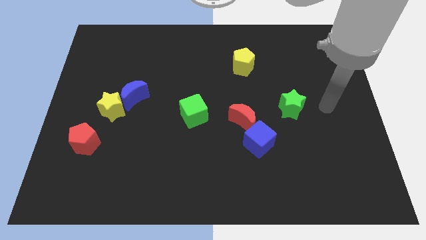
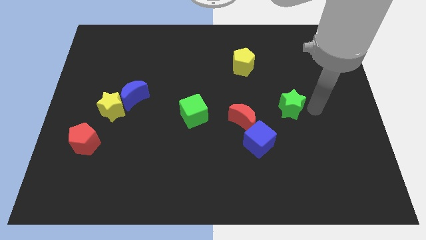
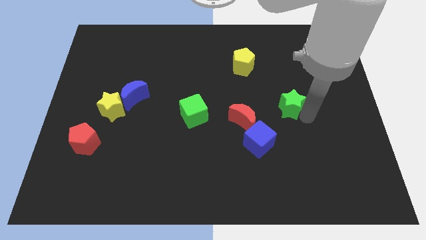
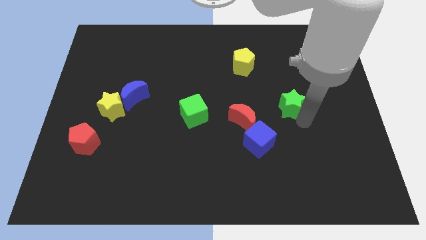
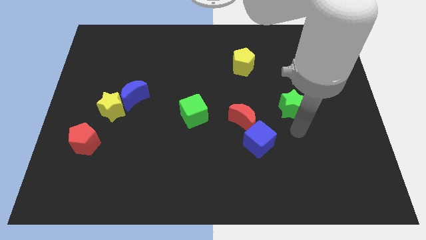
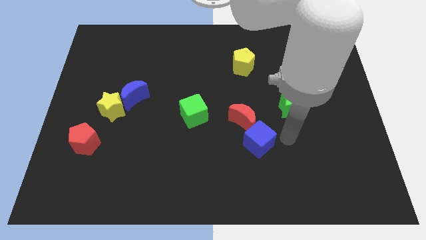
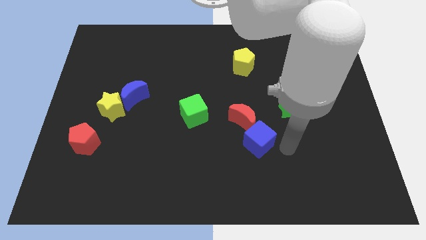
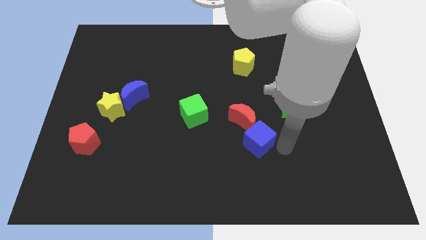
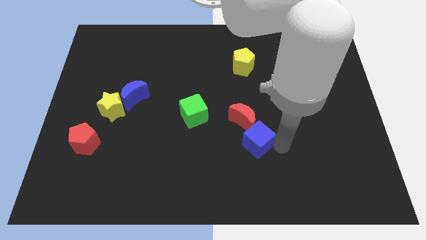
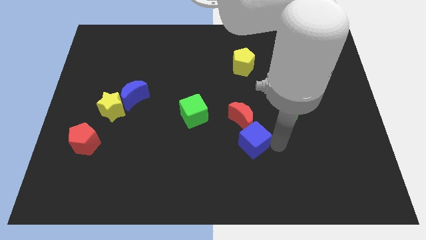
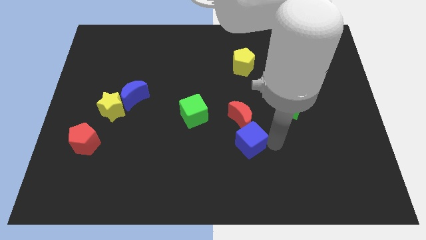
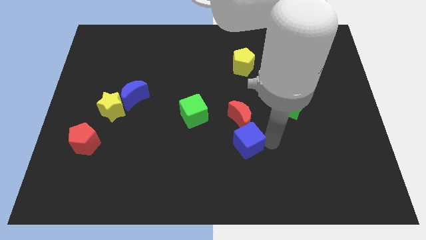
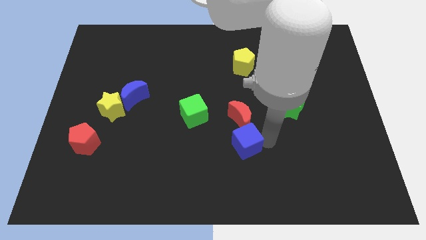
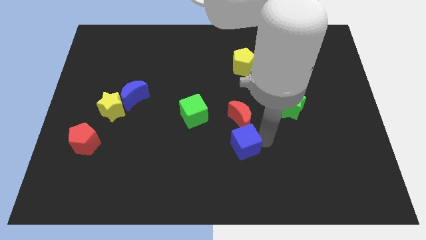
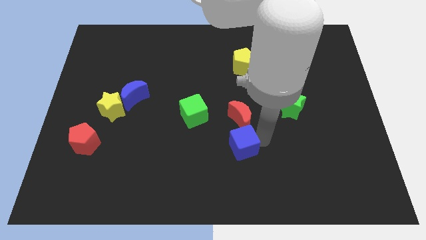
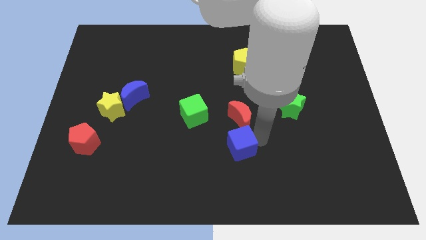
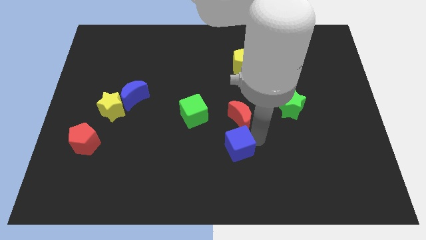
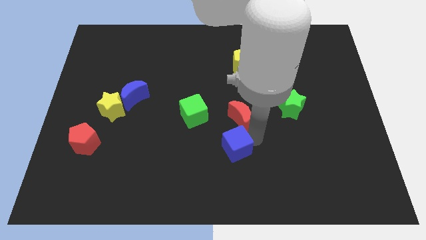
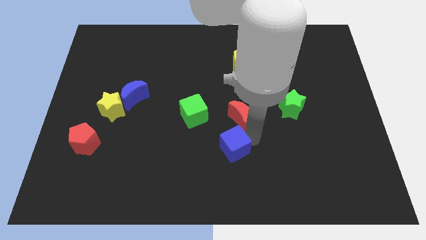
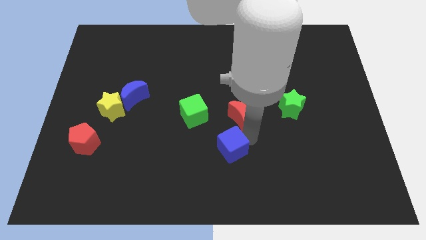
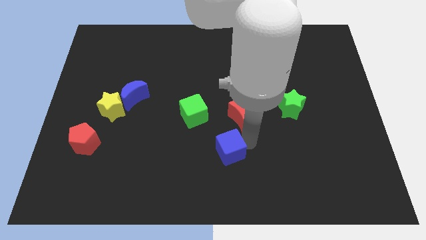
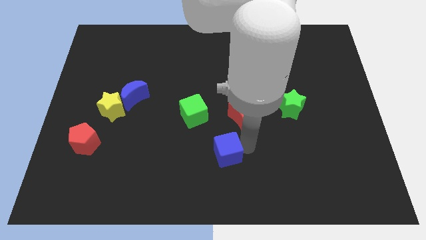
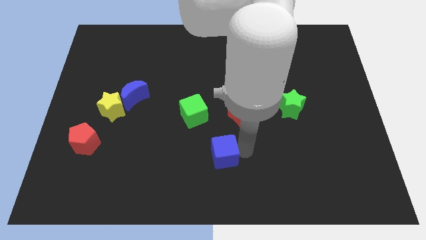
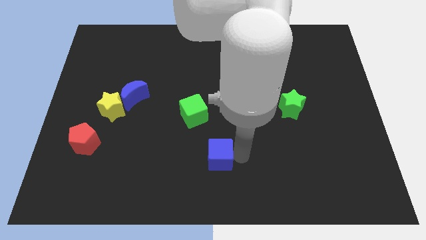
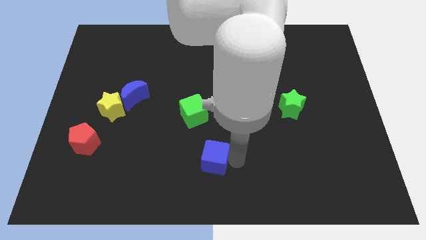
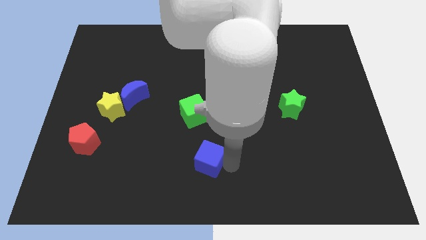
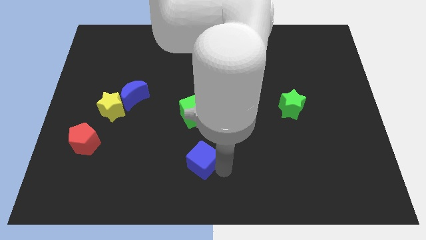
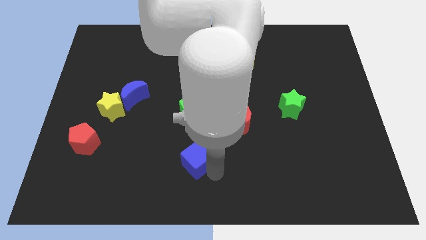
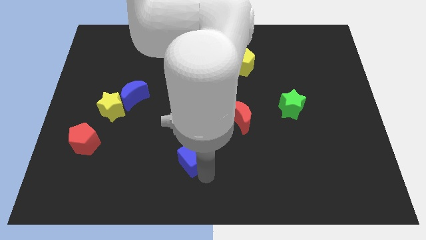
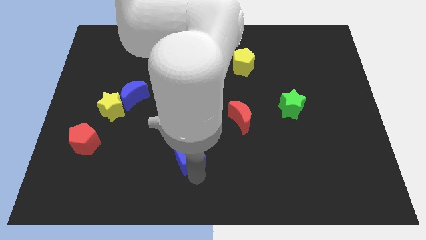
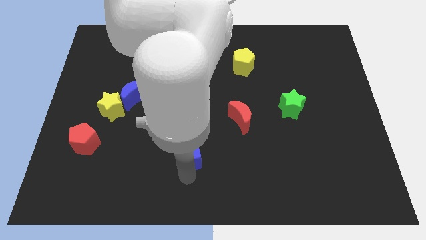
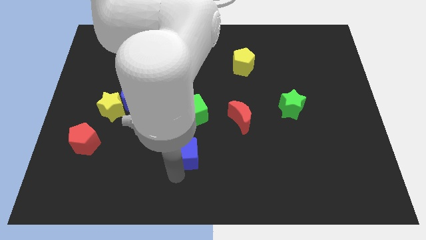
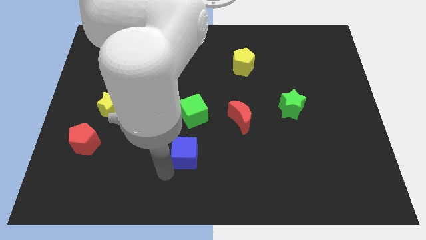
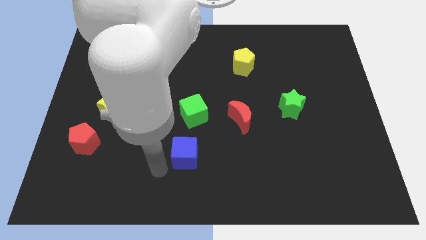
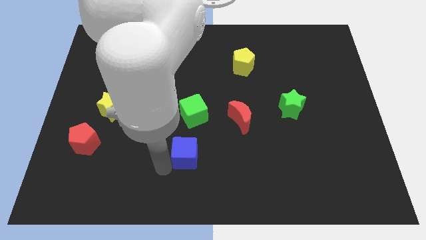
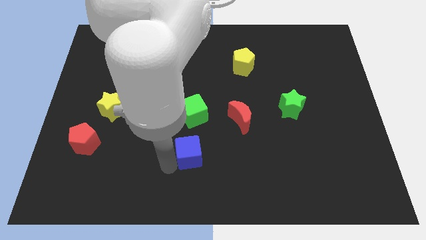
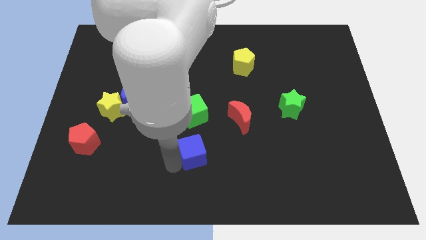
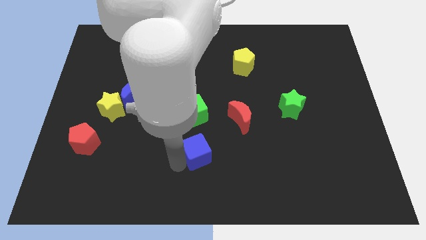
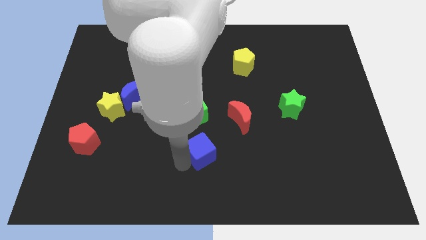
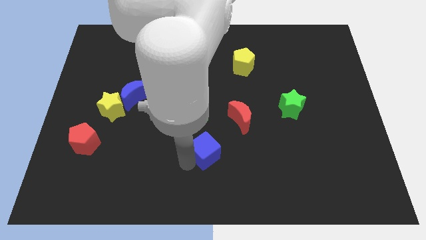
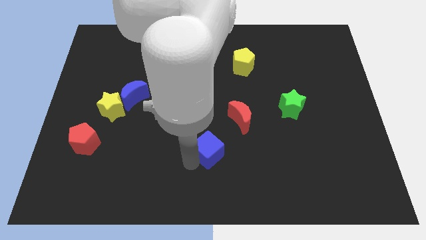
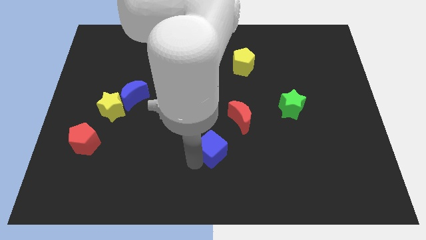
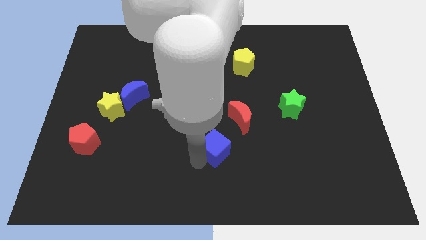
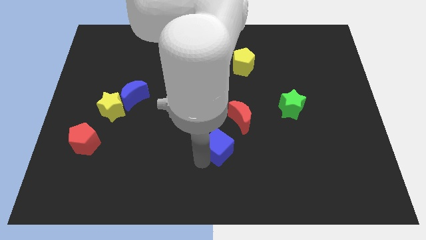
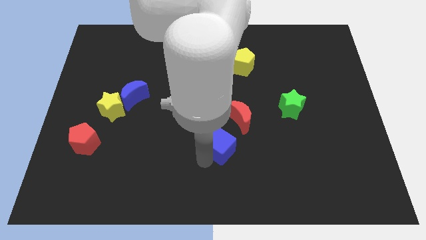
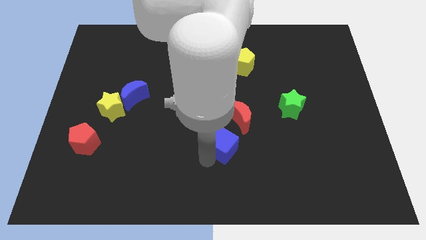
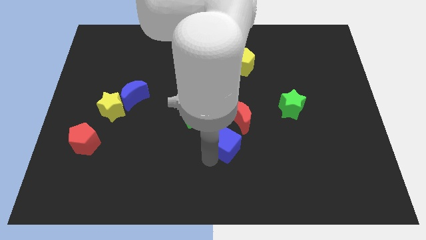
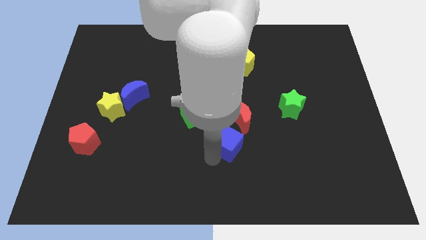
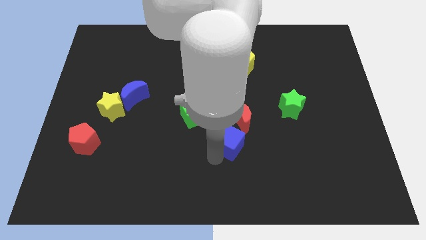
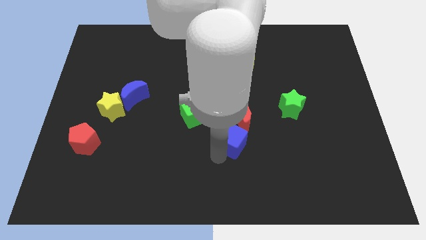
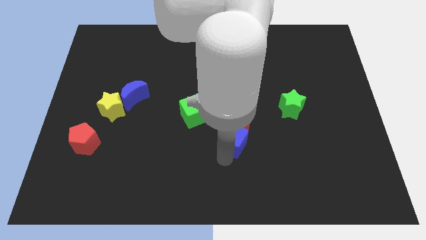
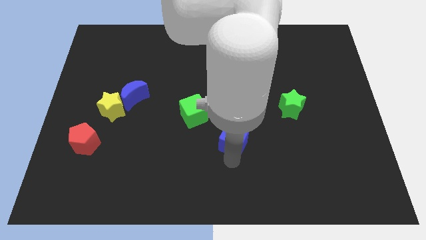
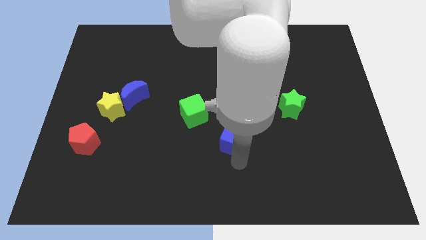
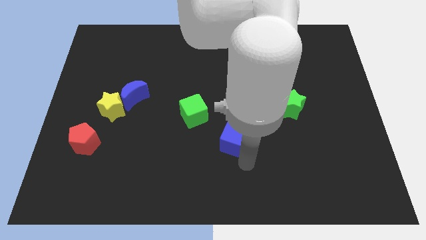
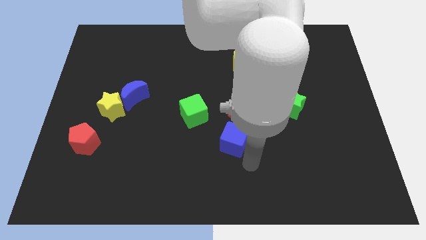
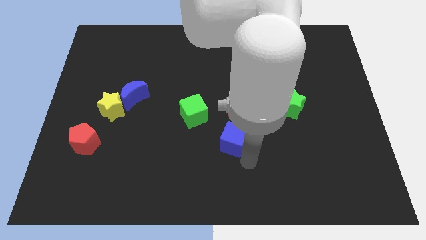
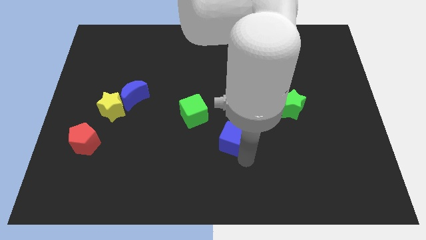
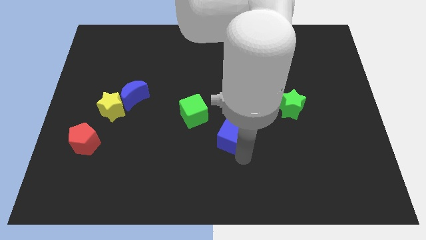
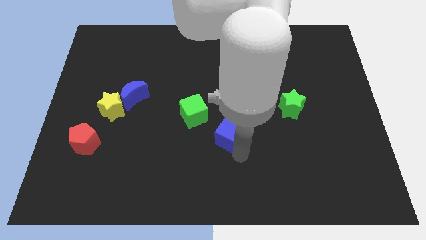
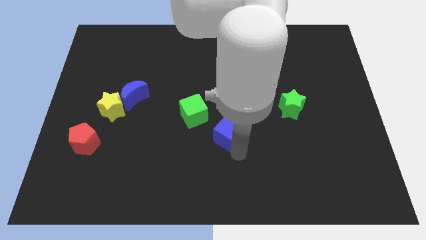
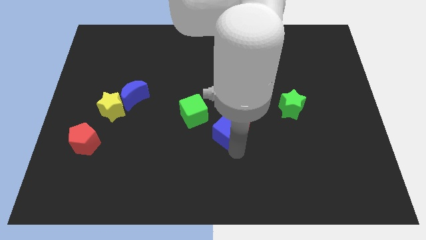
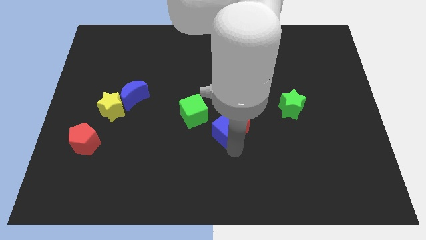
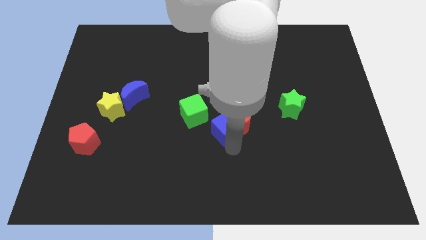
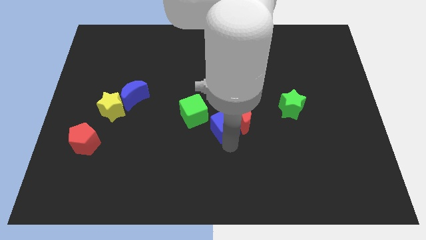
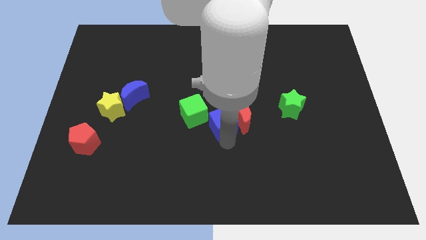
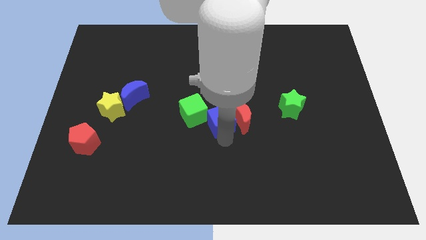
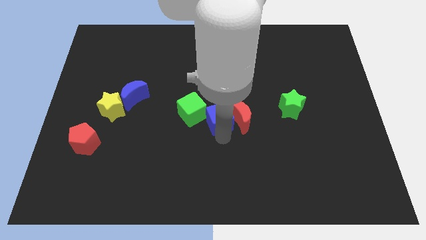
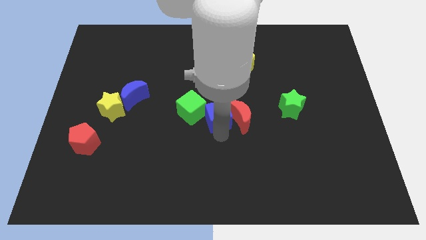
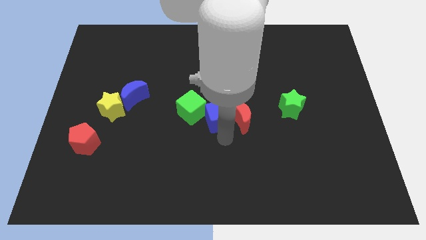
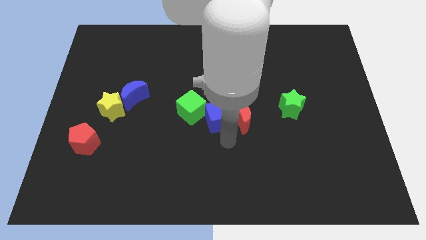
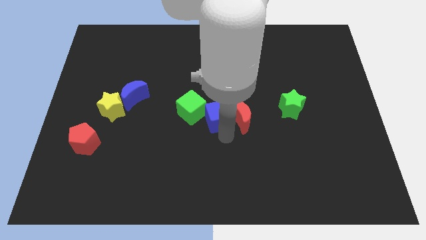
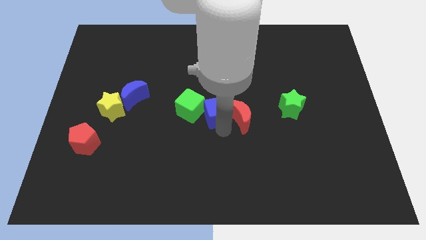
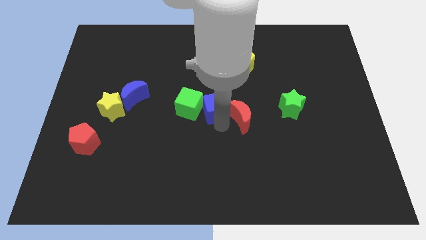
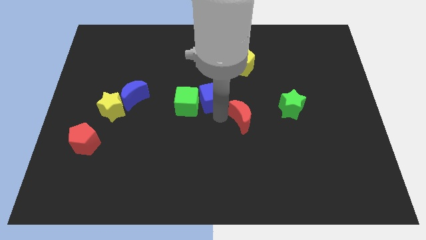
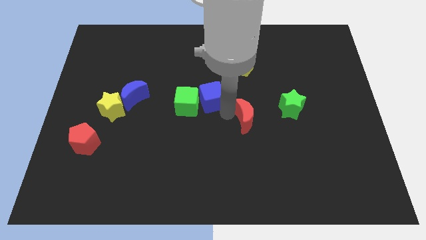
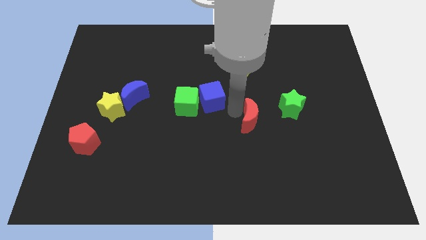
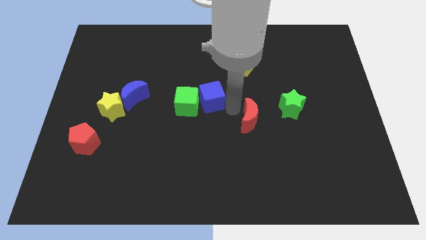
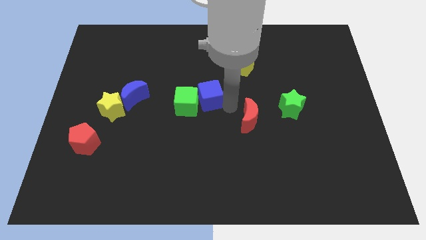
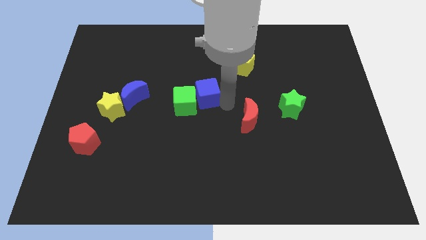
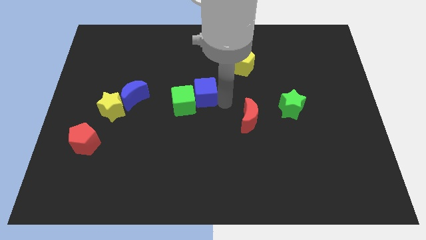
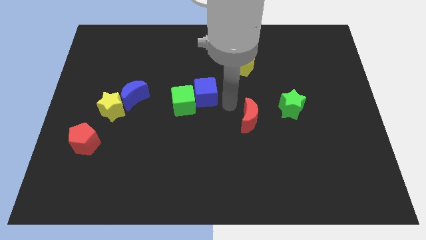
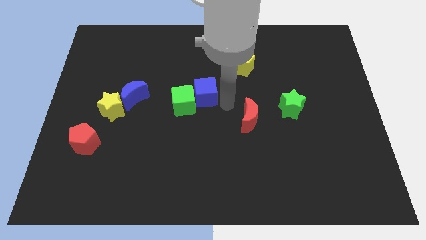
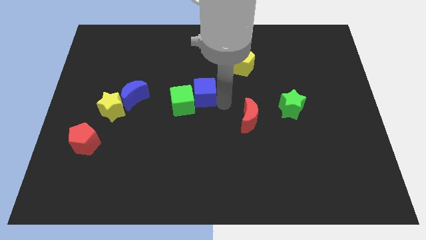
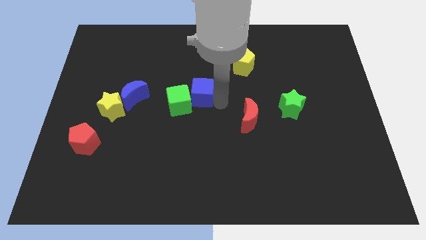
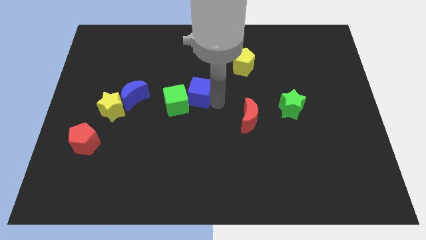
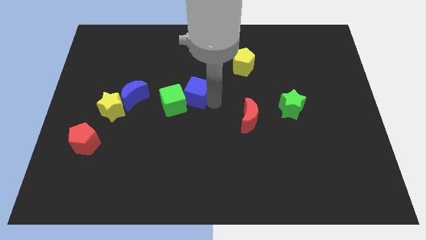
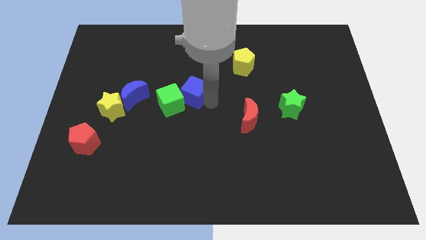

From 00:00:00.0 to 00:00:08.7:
push the blue cube upwards and to the left
